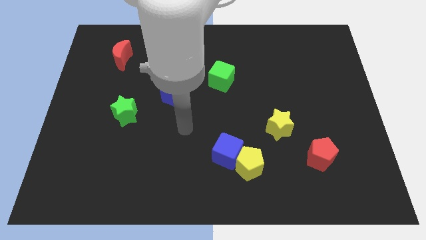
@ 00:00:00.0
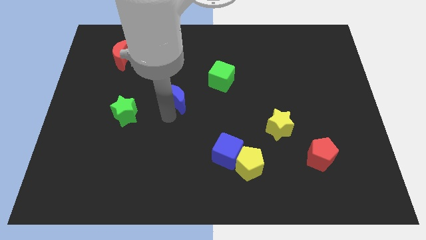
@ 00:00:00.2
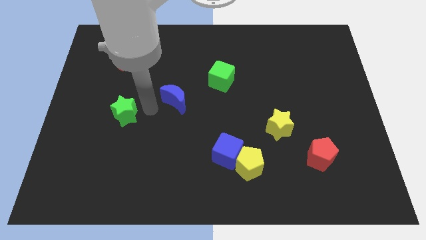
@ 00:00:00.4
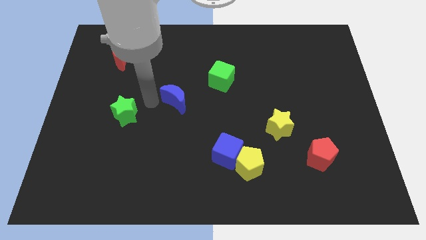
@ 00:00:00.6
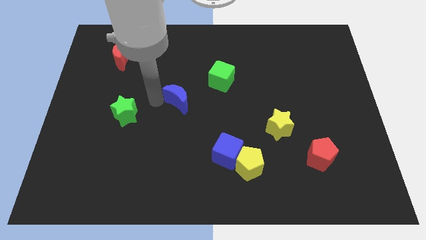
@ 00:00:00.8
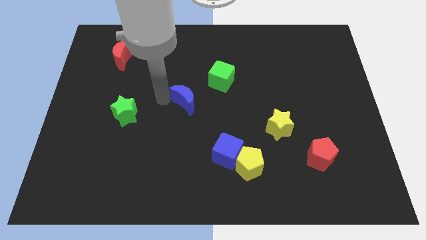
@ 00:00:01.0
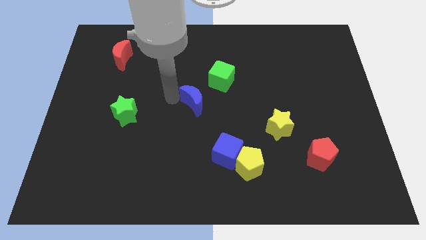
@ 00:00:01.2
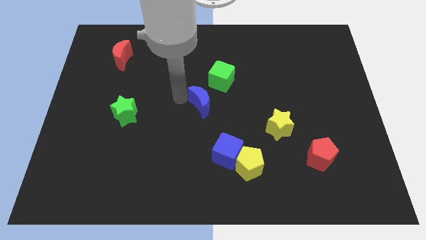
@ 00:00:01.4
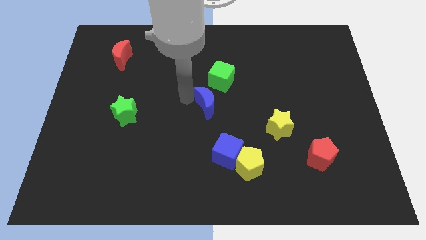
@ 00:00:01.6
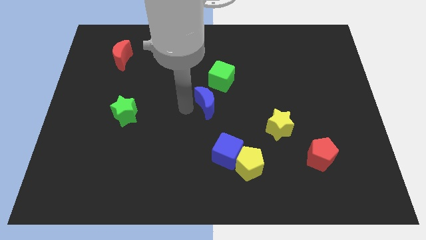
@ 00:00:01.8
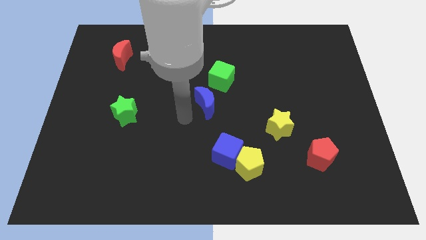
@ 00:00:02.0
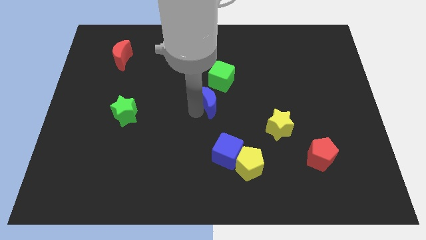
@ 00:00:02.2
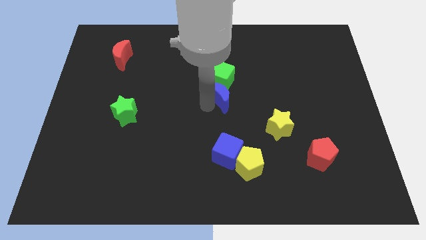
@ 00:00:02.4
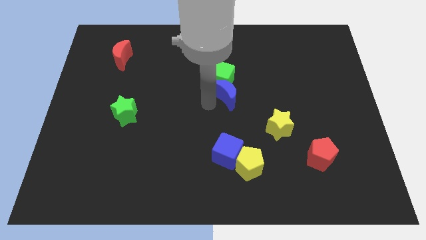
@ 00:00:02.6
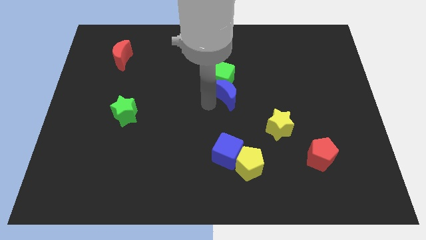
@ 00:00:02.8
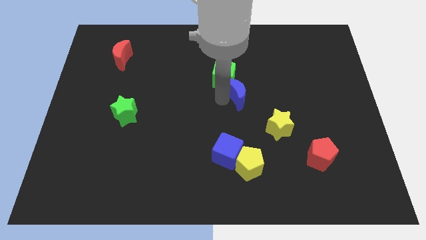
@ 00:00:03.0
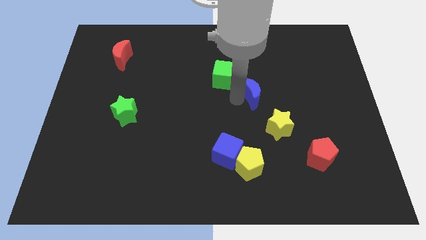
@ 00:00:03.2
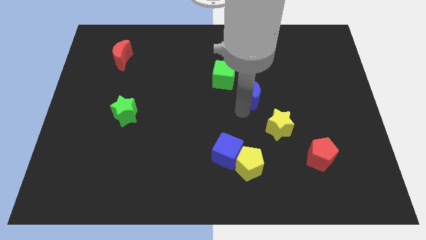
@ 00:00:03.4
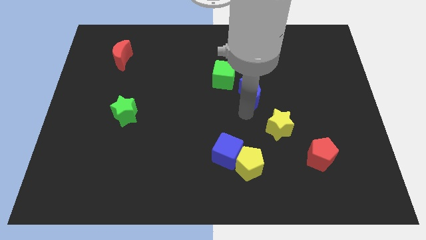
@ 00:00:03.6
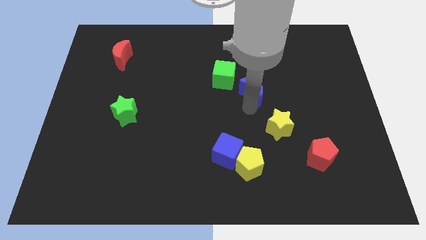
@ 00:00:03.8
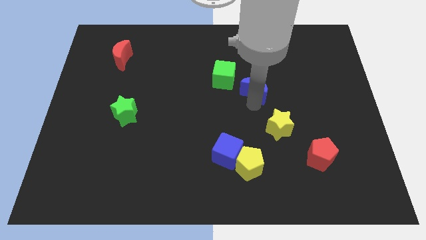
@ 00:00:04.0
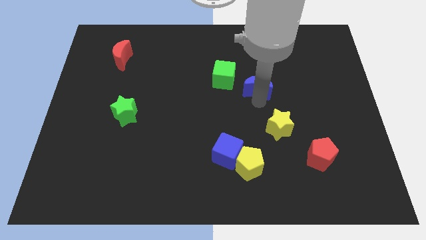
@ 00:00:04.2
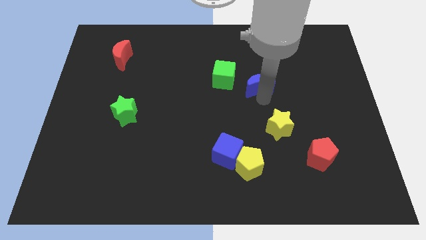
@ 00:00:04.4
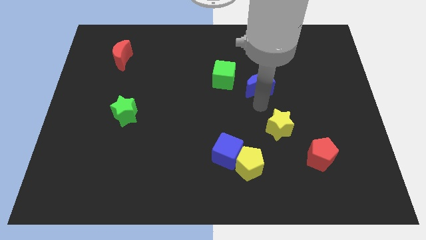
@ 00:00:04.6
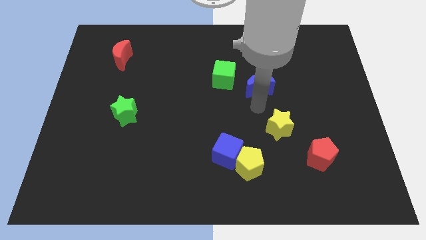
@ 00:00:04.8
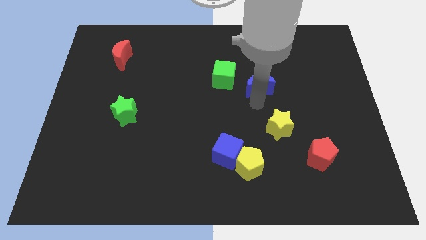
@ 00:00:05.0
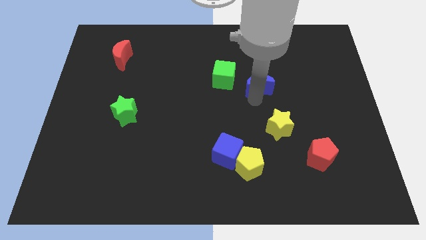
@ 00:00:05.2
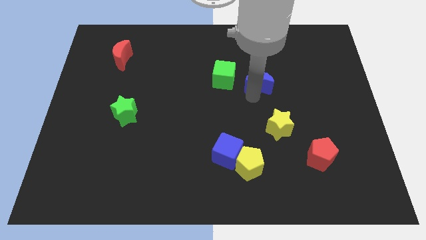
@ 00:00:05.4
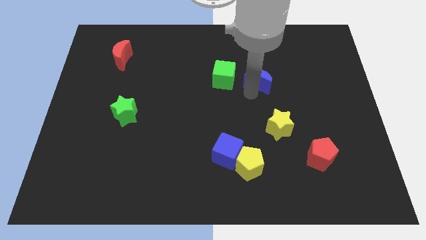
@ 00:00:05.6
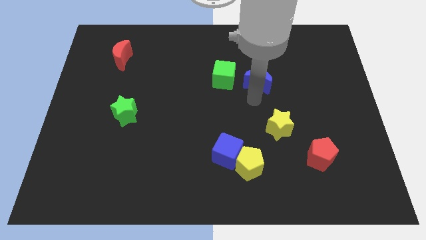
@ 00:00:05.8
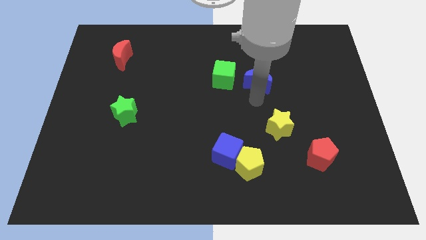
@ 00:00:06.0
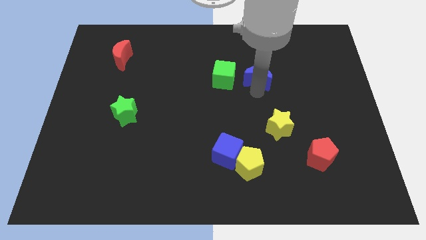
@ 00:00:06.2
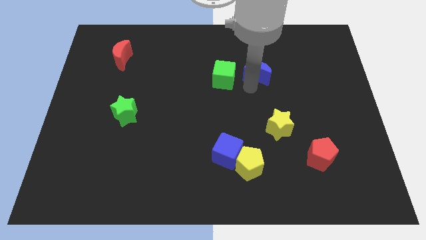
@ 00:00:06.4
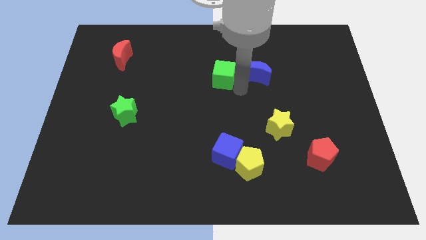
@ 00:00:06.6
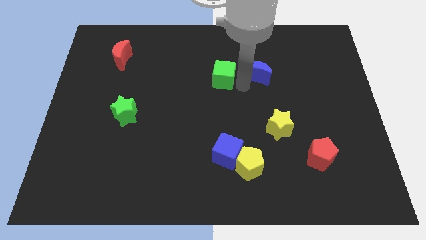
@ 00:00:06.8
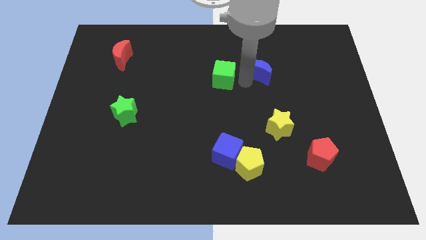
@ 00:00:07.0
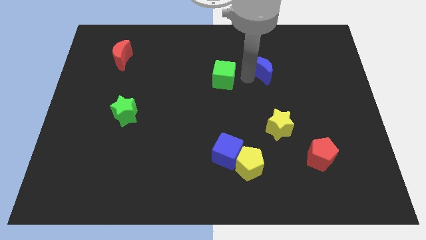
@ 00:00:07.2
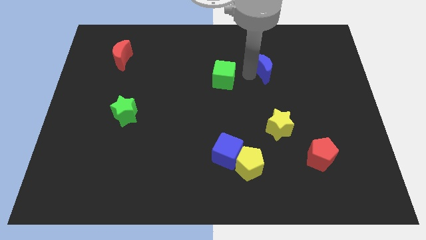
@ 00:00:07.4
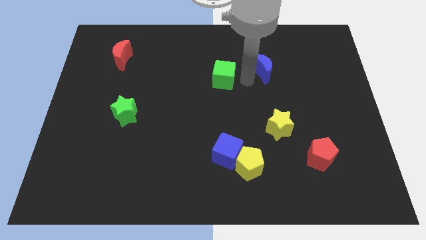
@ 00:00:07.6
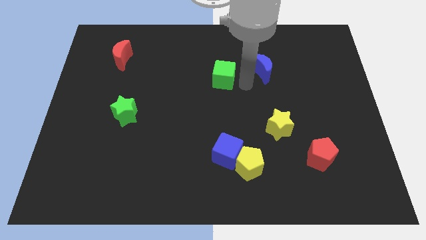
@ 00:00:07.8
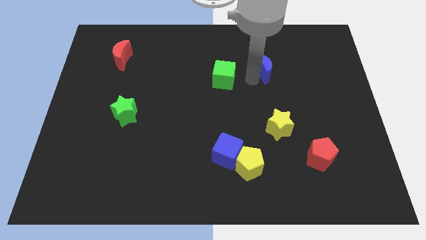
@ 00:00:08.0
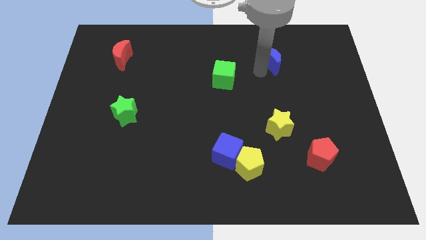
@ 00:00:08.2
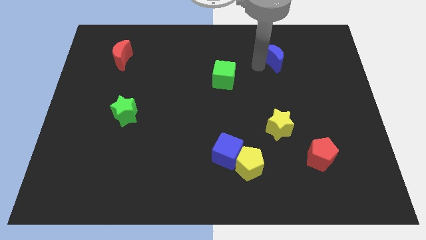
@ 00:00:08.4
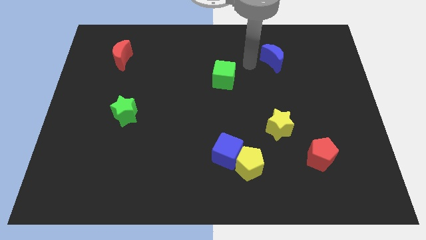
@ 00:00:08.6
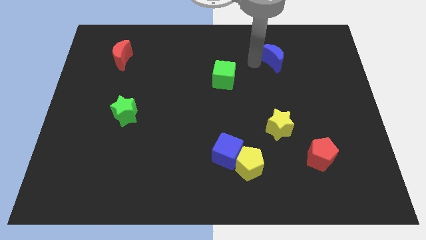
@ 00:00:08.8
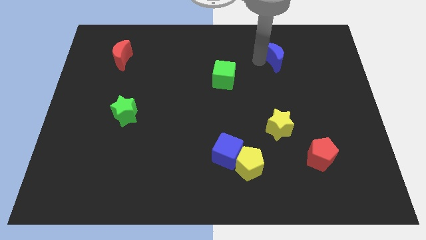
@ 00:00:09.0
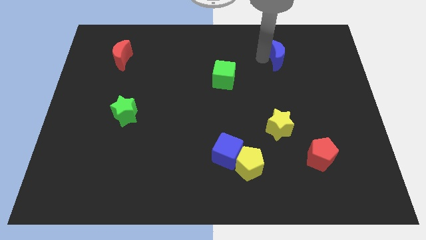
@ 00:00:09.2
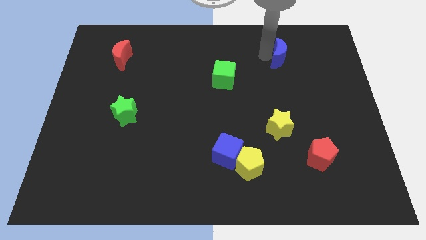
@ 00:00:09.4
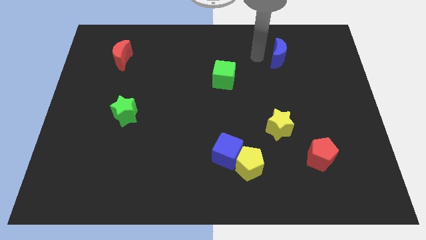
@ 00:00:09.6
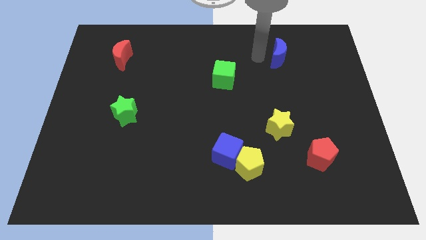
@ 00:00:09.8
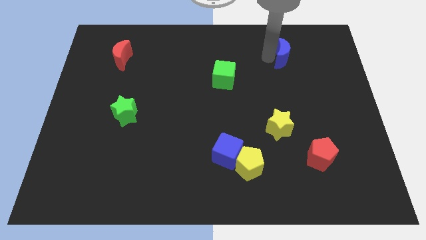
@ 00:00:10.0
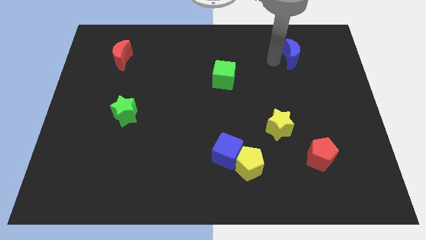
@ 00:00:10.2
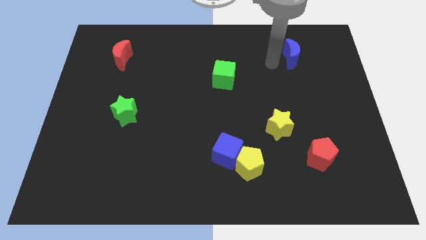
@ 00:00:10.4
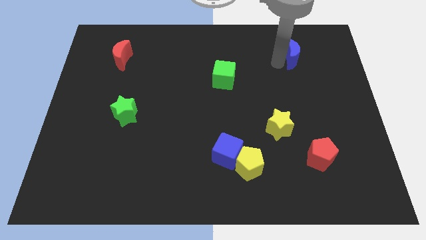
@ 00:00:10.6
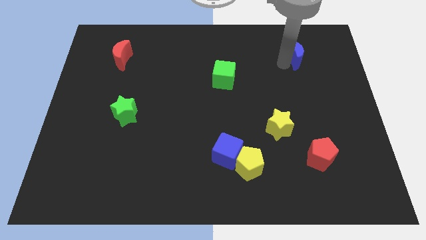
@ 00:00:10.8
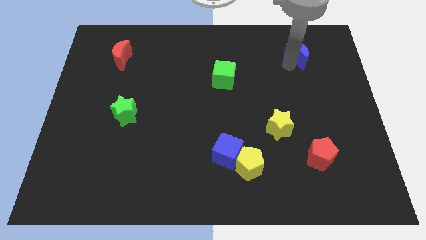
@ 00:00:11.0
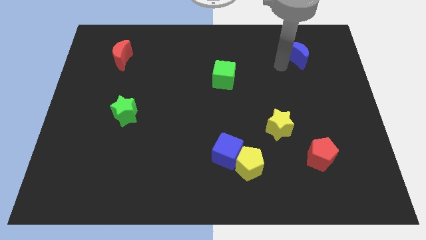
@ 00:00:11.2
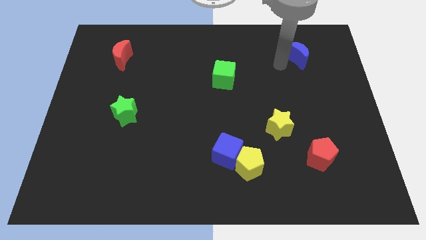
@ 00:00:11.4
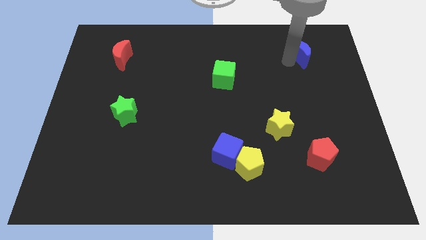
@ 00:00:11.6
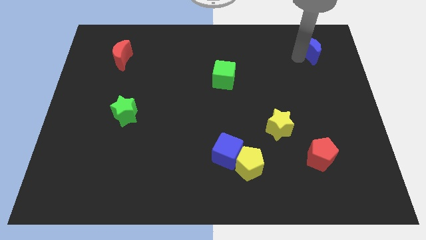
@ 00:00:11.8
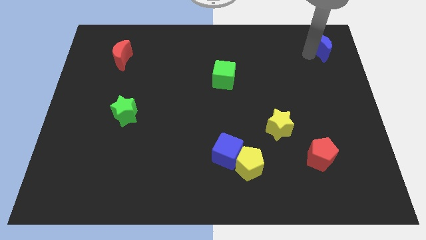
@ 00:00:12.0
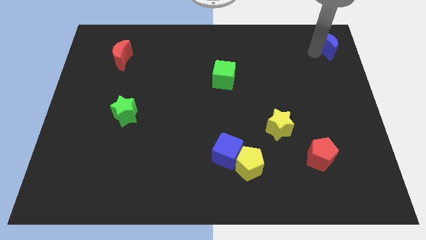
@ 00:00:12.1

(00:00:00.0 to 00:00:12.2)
put the blue moon to the top right corner
